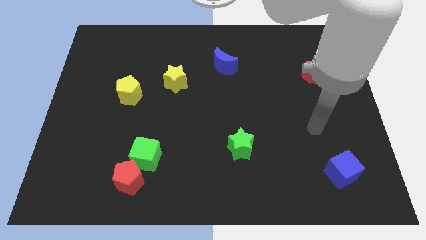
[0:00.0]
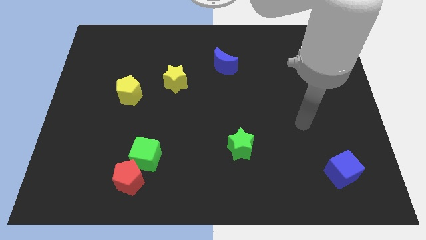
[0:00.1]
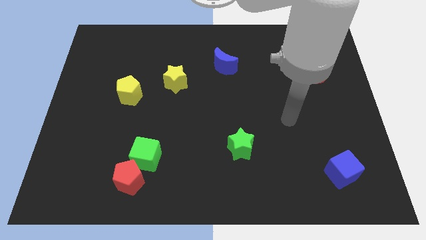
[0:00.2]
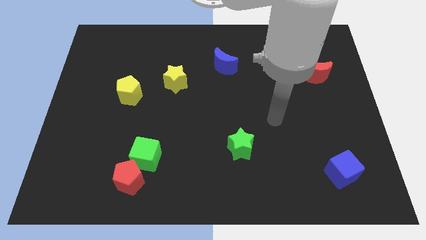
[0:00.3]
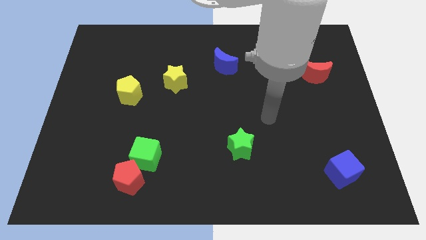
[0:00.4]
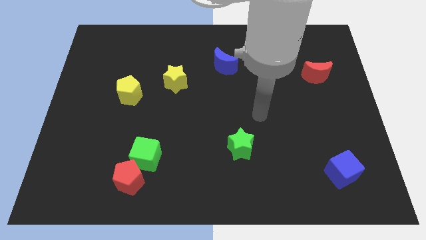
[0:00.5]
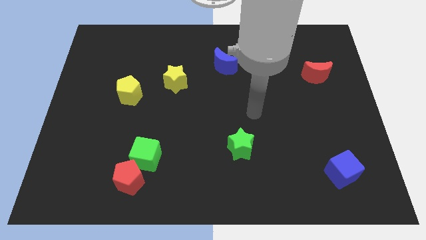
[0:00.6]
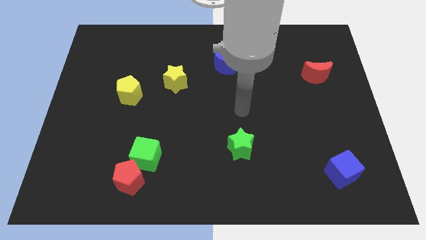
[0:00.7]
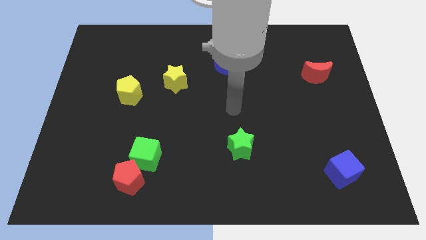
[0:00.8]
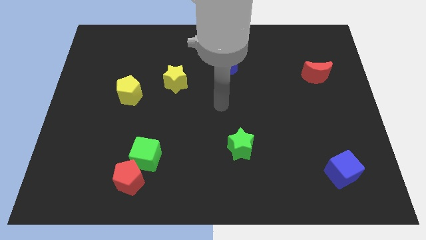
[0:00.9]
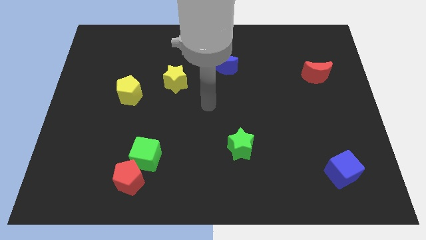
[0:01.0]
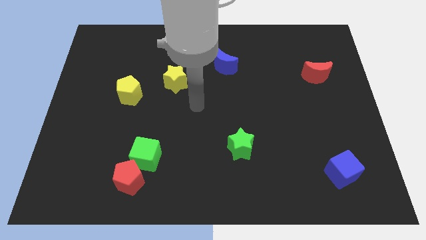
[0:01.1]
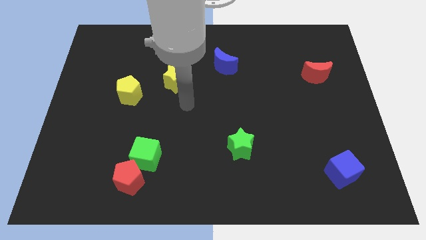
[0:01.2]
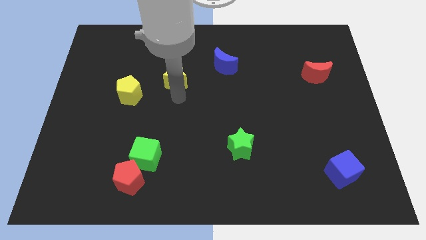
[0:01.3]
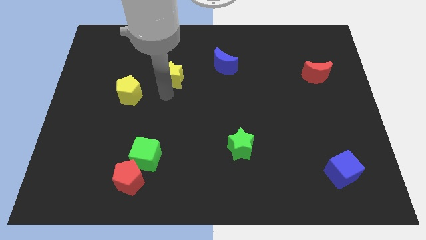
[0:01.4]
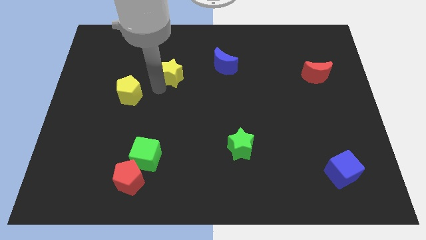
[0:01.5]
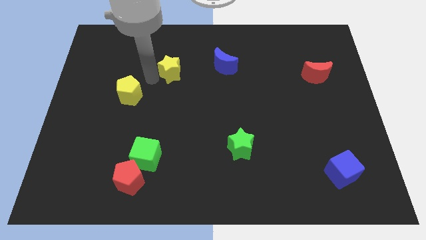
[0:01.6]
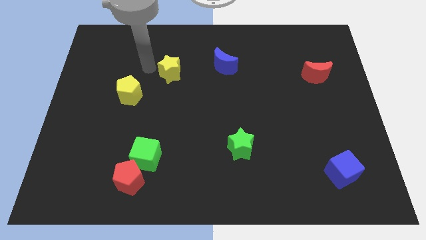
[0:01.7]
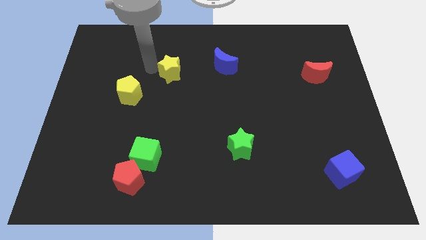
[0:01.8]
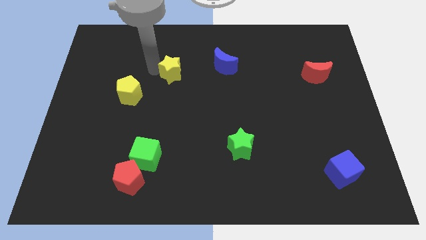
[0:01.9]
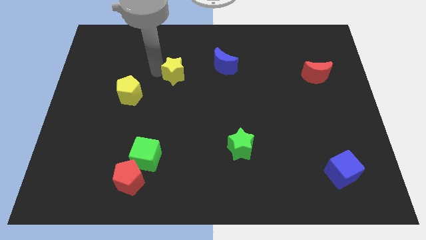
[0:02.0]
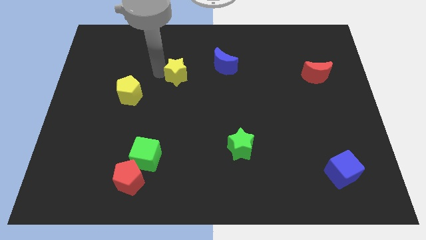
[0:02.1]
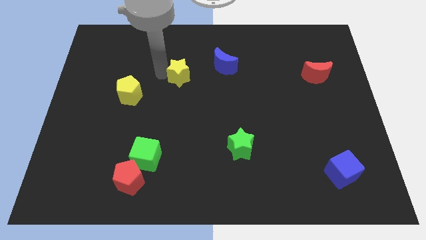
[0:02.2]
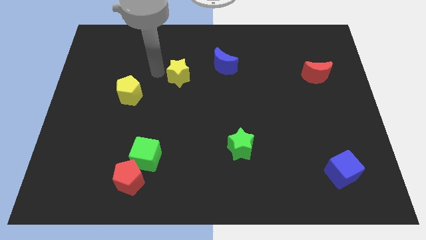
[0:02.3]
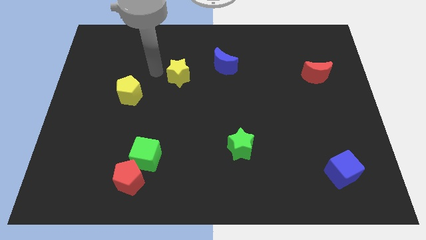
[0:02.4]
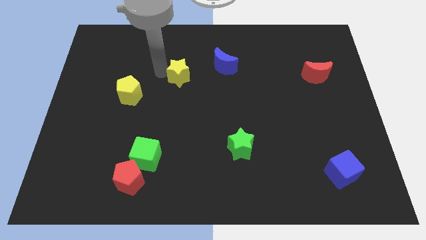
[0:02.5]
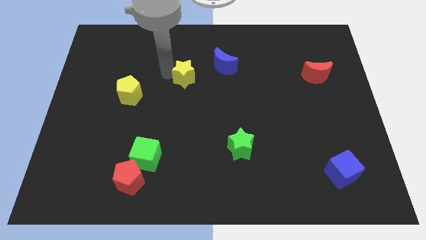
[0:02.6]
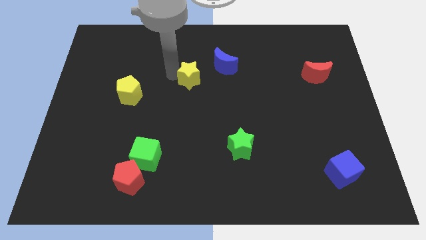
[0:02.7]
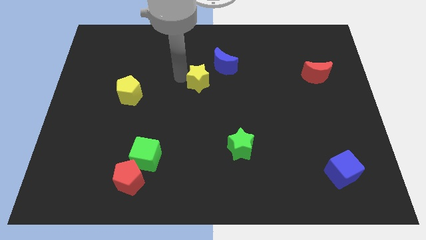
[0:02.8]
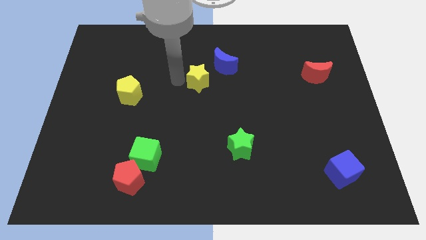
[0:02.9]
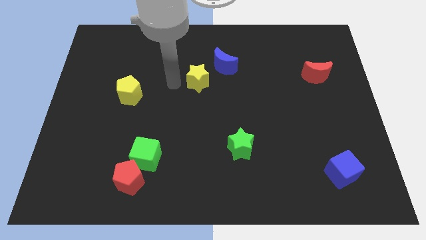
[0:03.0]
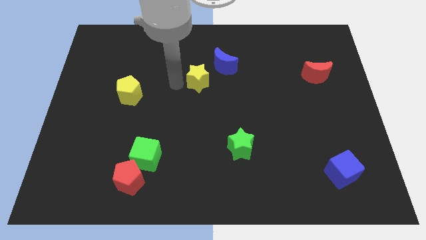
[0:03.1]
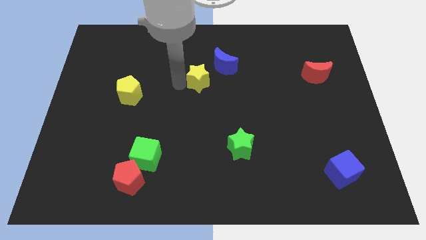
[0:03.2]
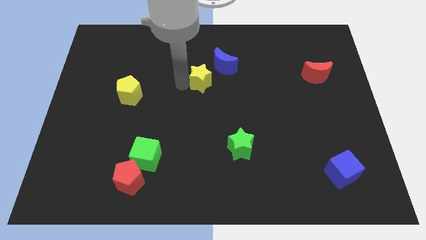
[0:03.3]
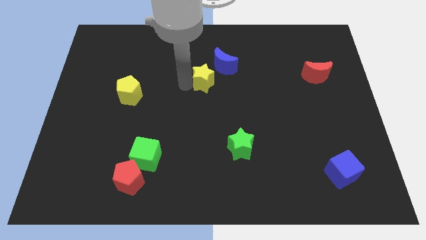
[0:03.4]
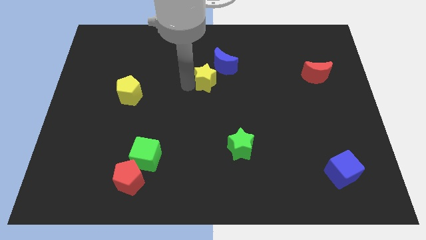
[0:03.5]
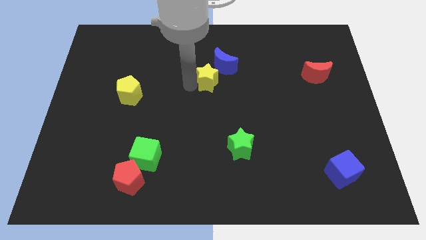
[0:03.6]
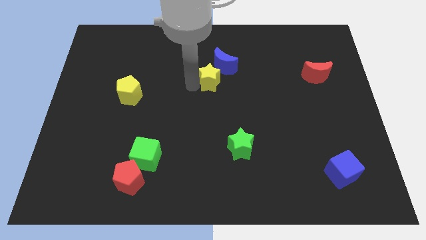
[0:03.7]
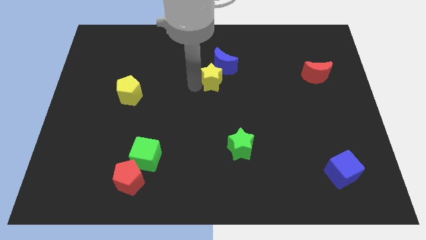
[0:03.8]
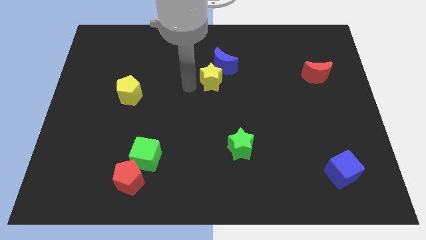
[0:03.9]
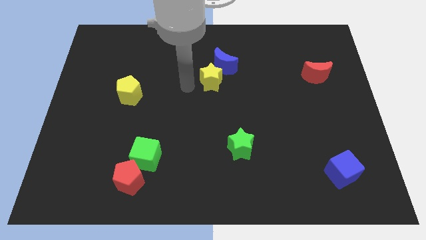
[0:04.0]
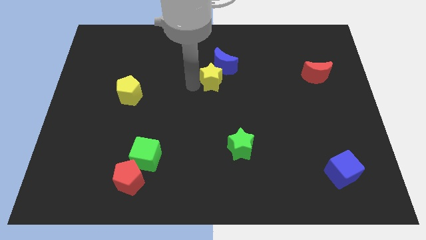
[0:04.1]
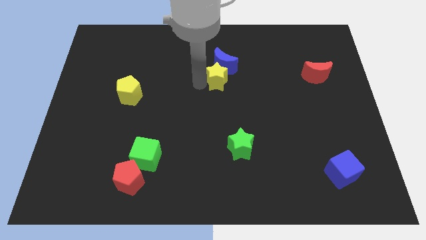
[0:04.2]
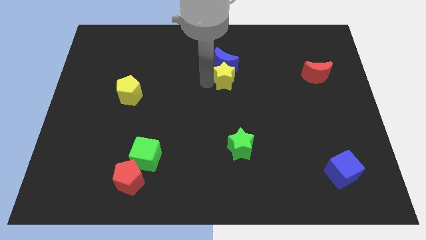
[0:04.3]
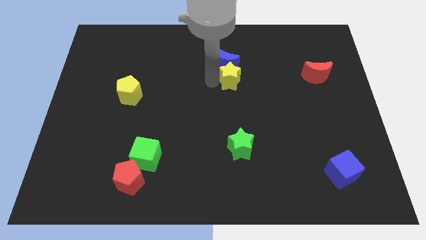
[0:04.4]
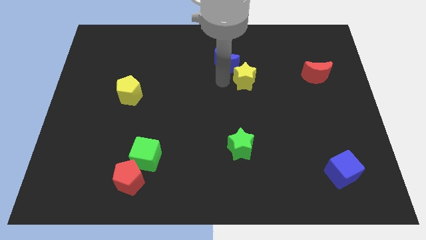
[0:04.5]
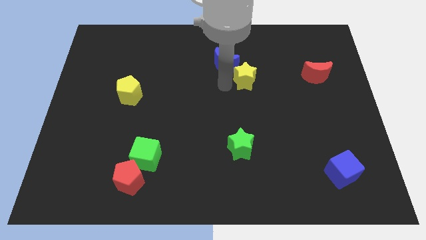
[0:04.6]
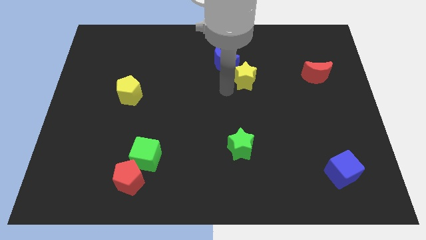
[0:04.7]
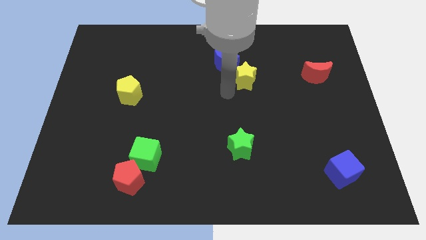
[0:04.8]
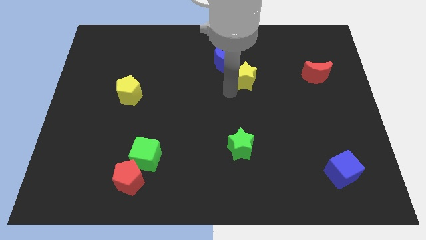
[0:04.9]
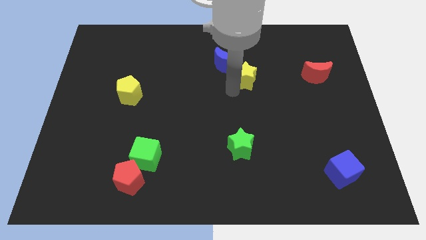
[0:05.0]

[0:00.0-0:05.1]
move the yellow star right of the blue moon

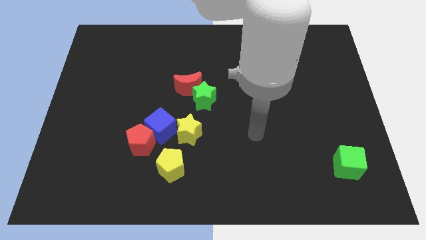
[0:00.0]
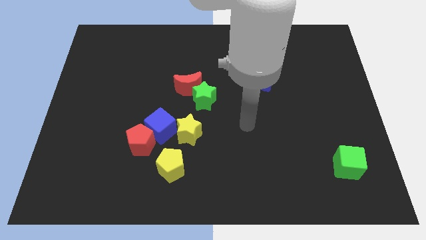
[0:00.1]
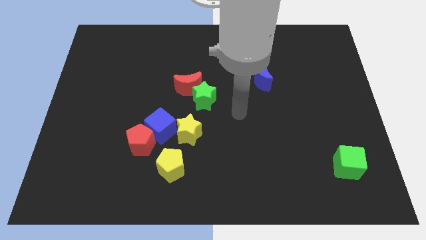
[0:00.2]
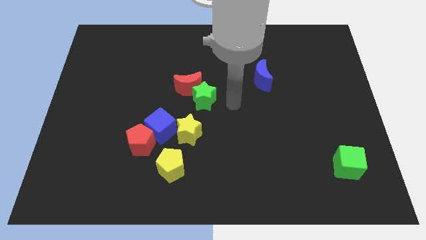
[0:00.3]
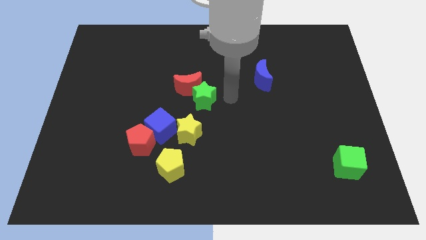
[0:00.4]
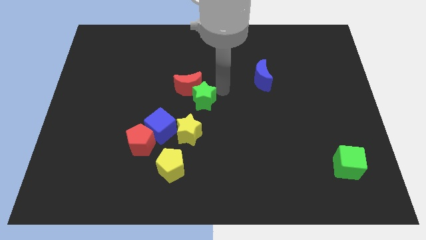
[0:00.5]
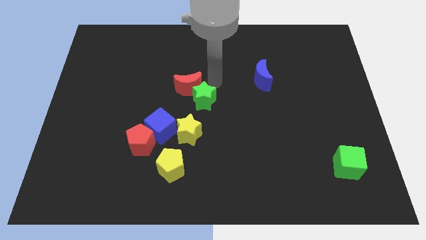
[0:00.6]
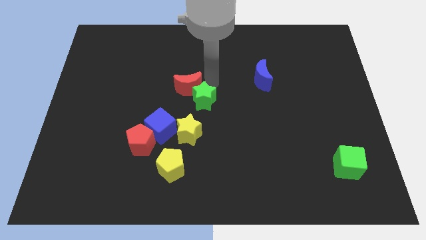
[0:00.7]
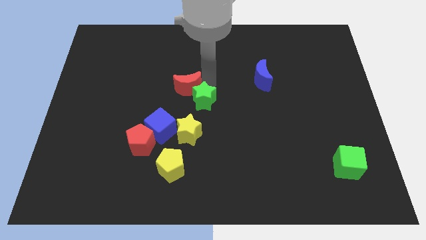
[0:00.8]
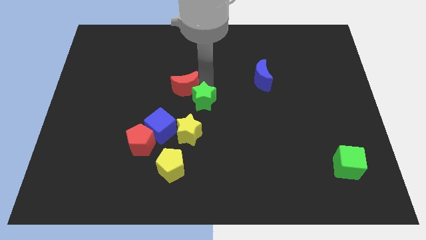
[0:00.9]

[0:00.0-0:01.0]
slide the red moon above the blue cube
